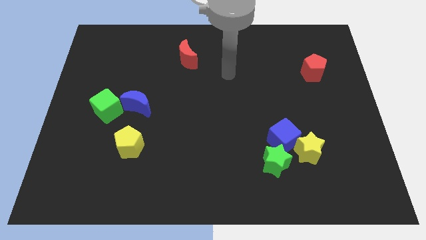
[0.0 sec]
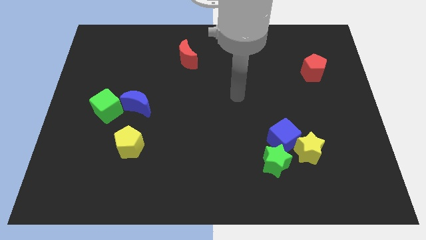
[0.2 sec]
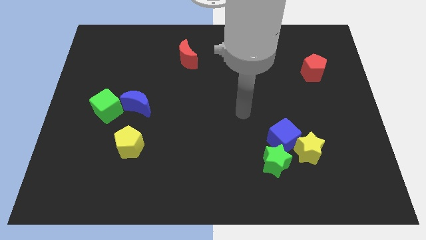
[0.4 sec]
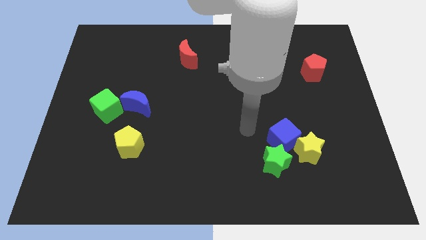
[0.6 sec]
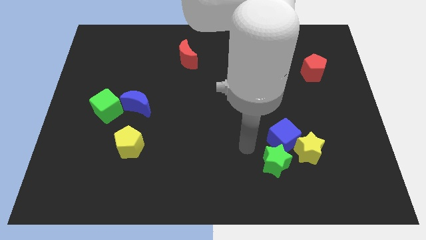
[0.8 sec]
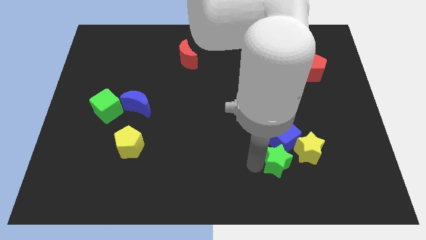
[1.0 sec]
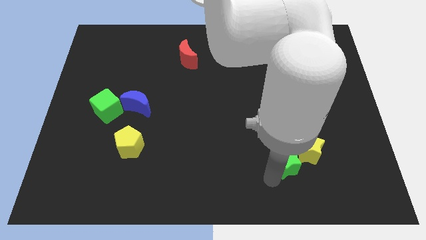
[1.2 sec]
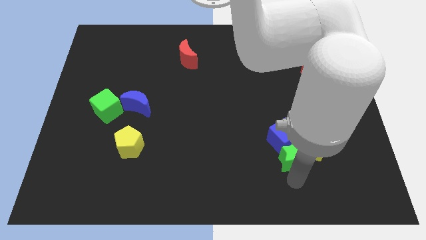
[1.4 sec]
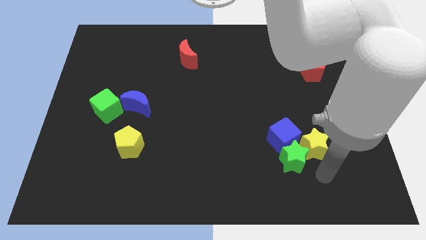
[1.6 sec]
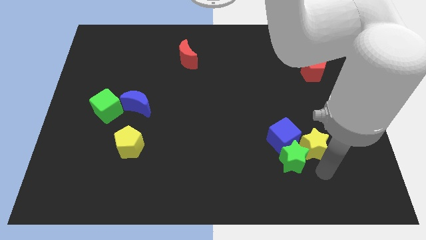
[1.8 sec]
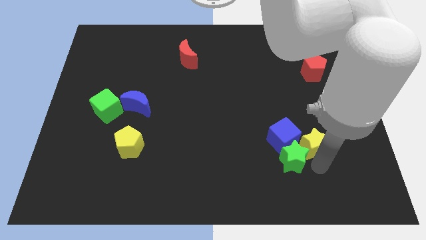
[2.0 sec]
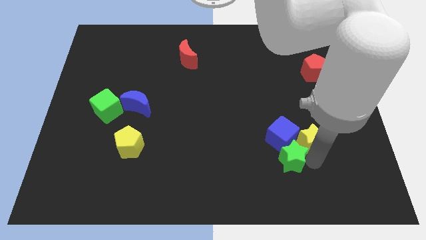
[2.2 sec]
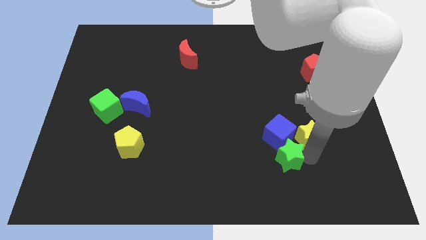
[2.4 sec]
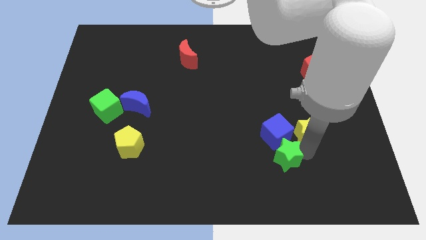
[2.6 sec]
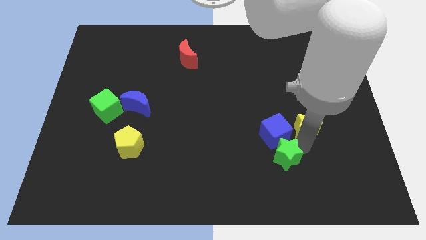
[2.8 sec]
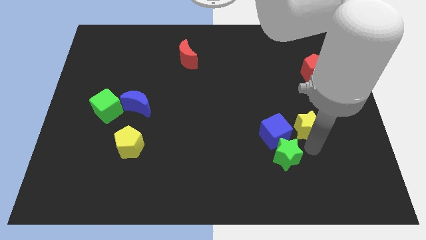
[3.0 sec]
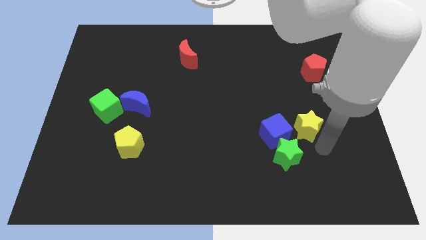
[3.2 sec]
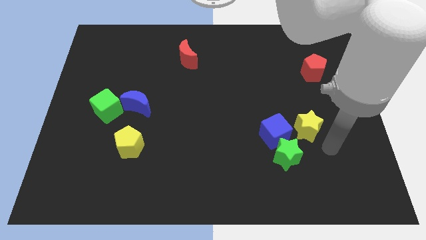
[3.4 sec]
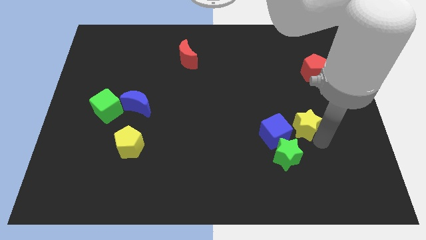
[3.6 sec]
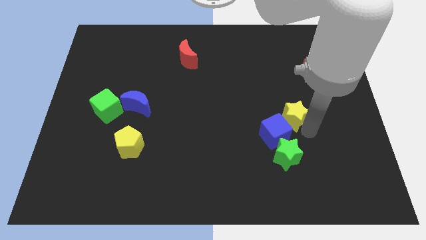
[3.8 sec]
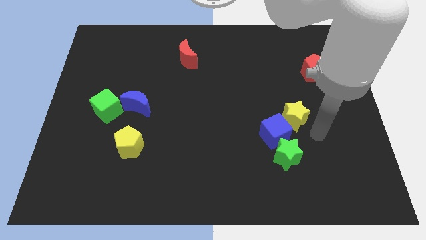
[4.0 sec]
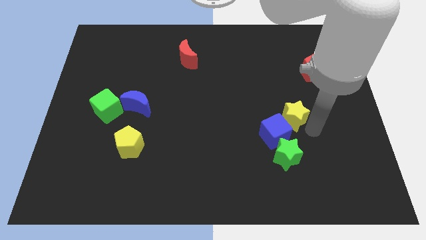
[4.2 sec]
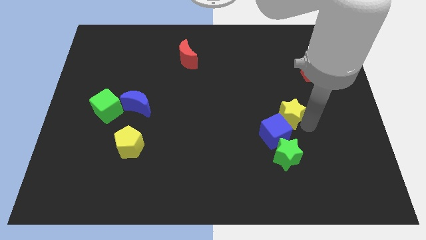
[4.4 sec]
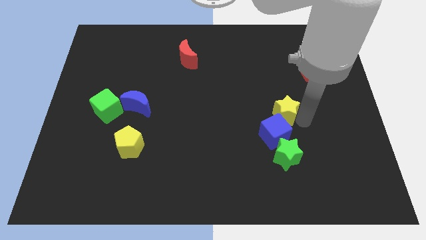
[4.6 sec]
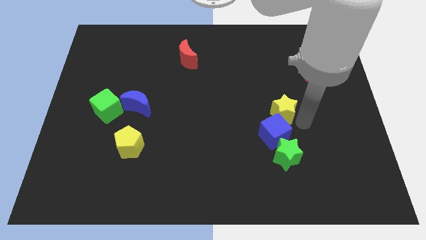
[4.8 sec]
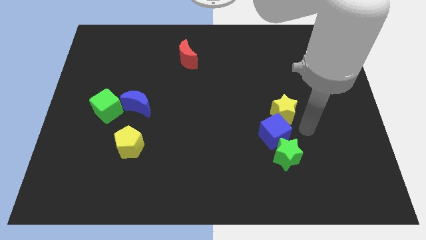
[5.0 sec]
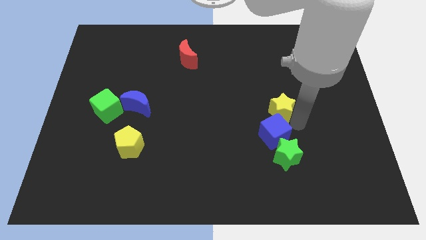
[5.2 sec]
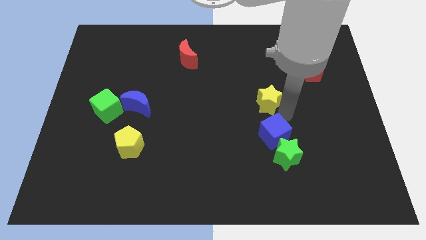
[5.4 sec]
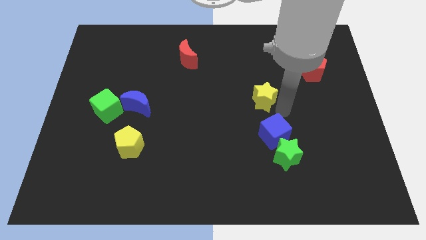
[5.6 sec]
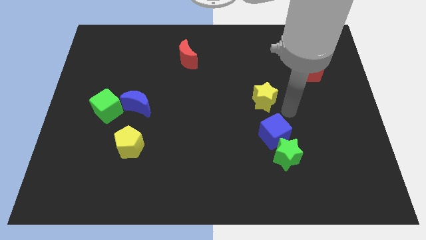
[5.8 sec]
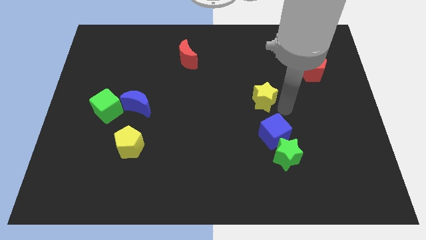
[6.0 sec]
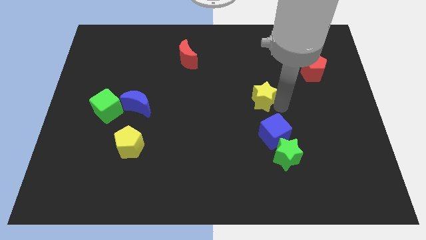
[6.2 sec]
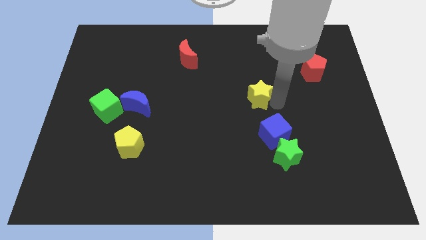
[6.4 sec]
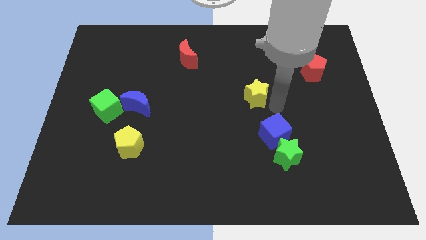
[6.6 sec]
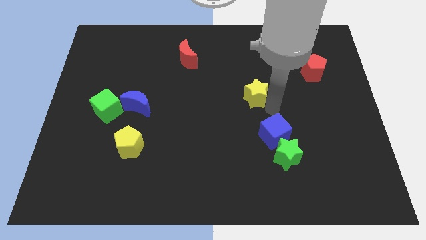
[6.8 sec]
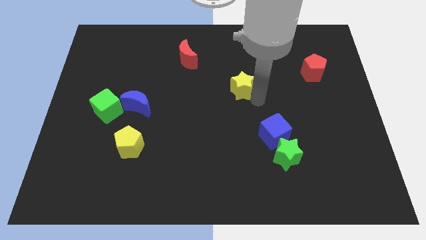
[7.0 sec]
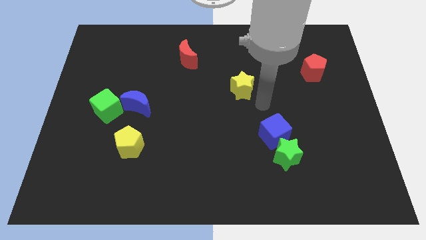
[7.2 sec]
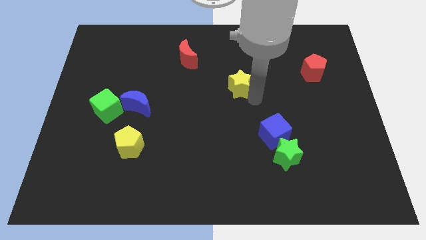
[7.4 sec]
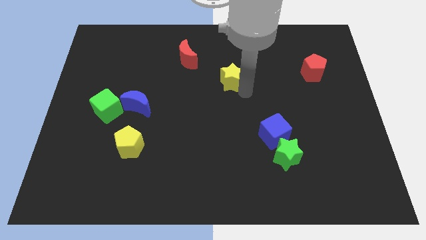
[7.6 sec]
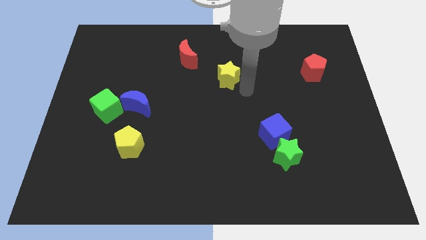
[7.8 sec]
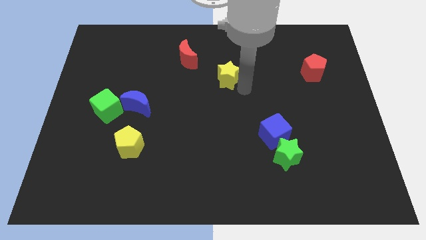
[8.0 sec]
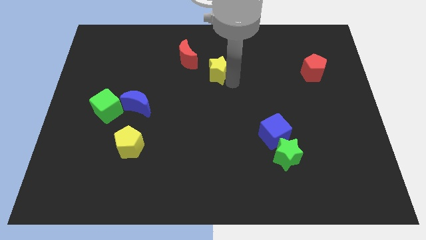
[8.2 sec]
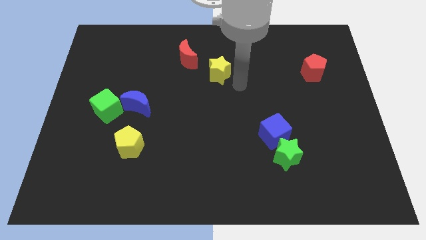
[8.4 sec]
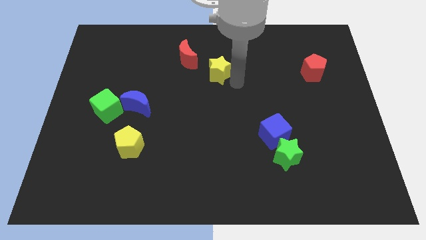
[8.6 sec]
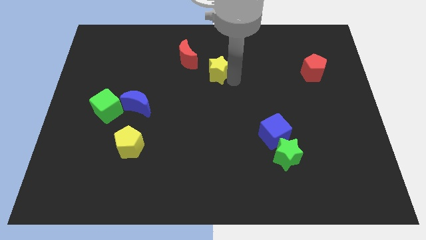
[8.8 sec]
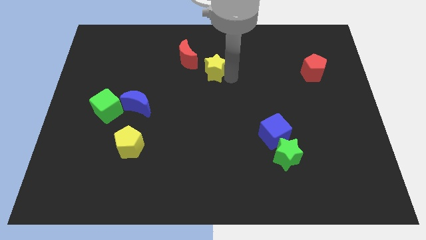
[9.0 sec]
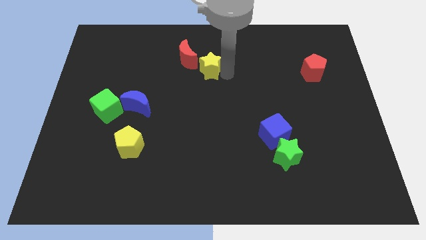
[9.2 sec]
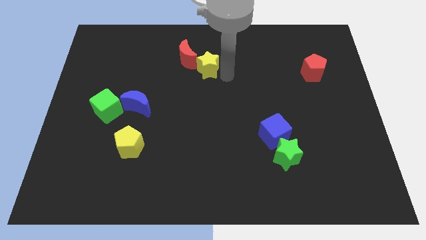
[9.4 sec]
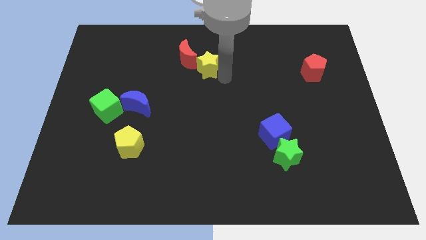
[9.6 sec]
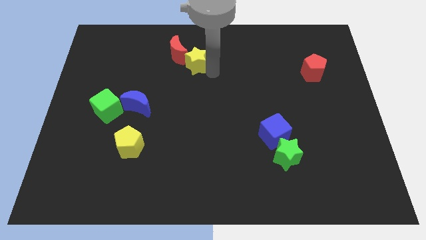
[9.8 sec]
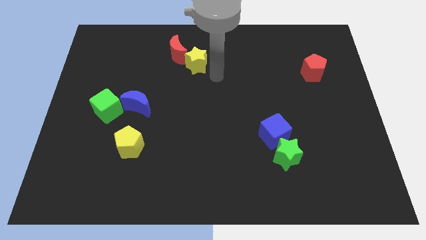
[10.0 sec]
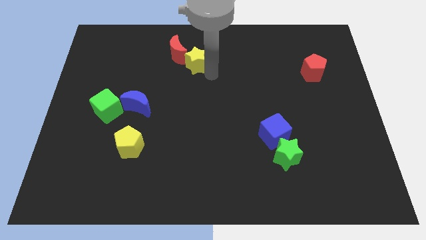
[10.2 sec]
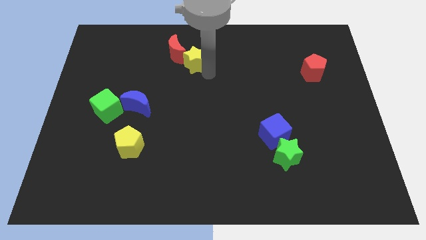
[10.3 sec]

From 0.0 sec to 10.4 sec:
put the yellow star towards the red moon

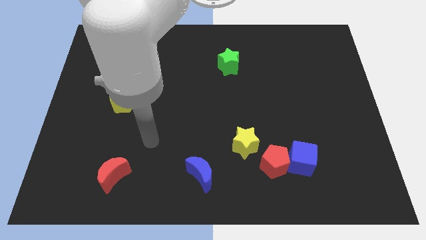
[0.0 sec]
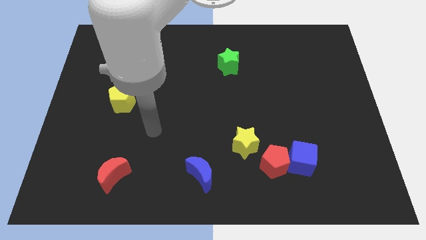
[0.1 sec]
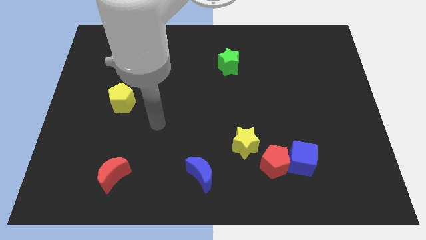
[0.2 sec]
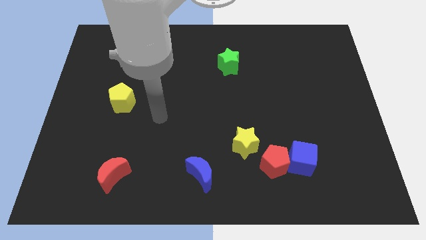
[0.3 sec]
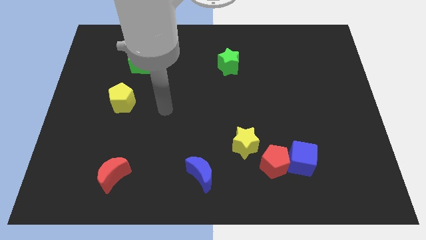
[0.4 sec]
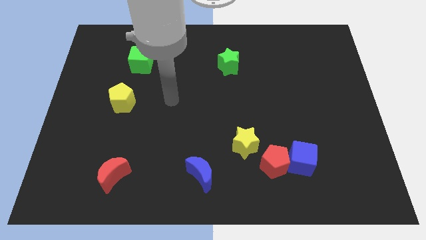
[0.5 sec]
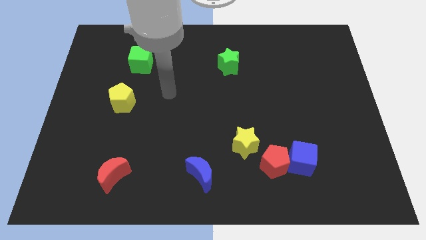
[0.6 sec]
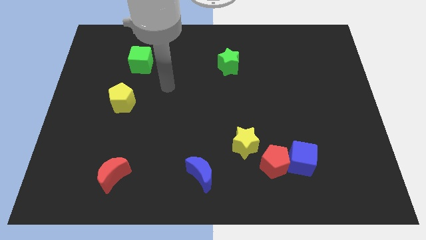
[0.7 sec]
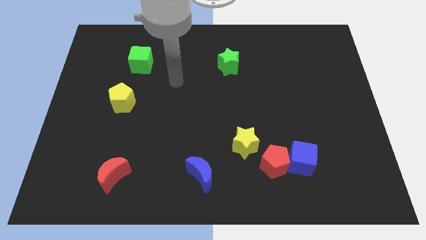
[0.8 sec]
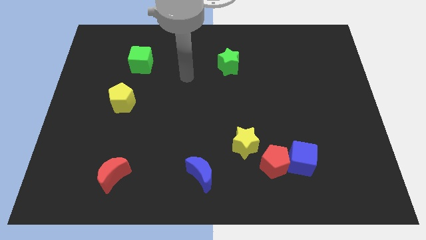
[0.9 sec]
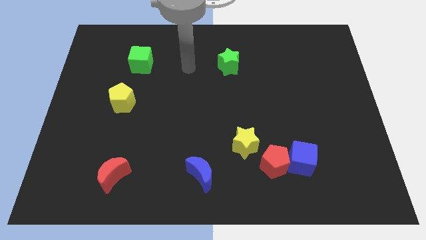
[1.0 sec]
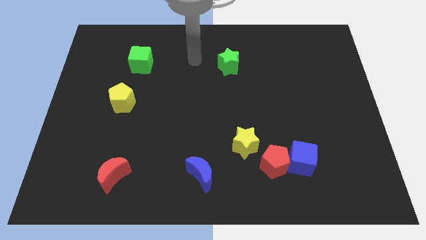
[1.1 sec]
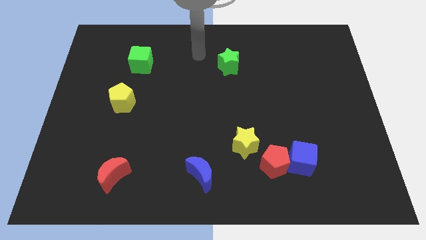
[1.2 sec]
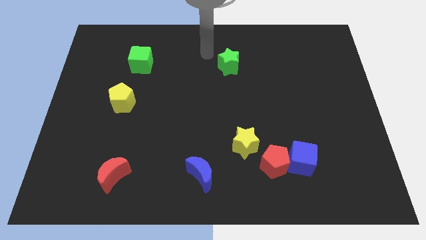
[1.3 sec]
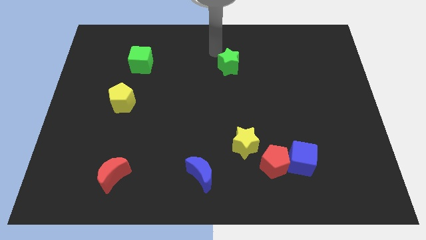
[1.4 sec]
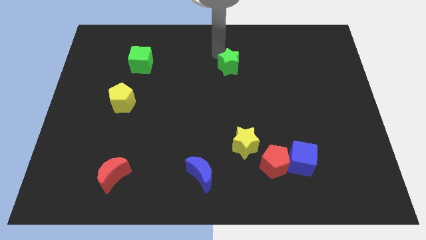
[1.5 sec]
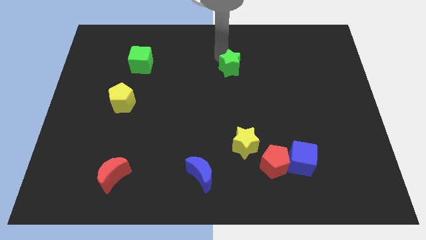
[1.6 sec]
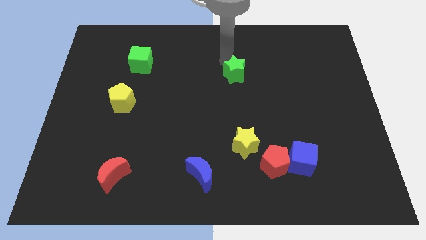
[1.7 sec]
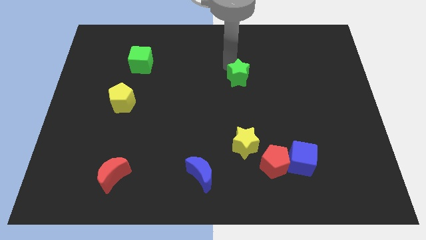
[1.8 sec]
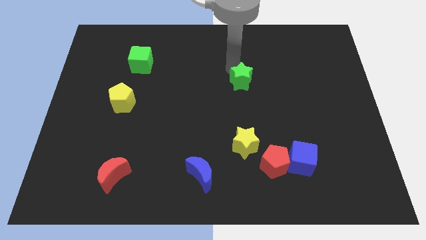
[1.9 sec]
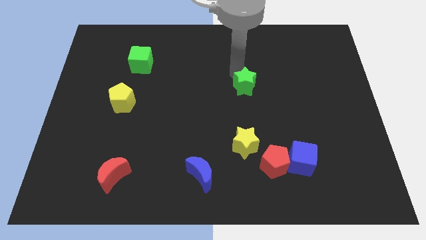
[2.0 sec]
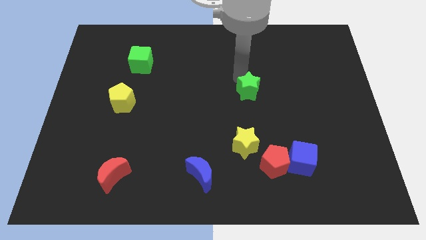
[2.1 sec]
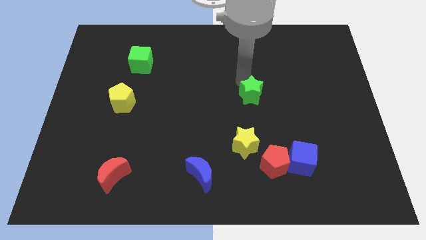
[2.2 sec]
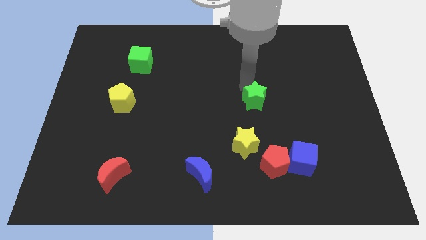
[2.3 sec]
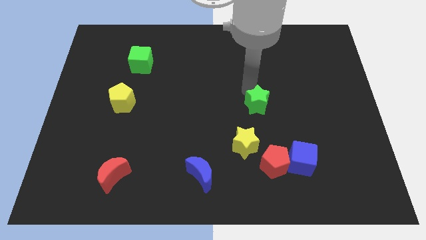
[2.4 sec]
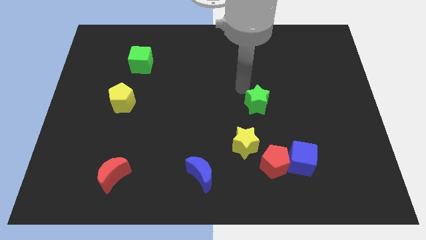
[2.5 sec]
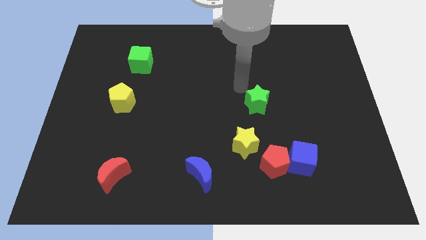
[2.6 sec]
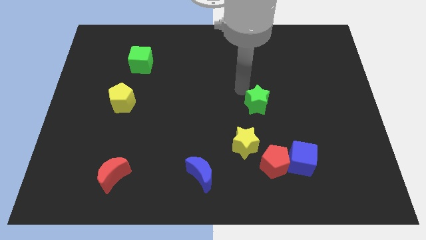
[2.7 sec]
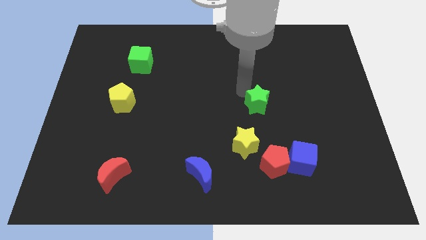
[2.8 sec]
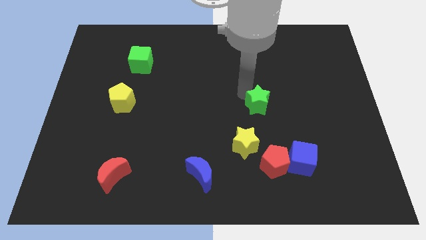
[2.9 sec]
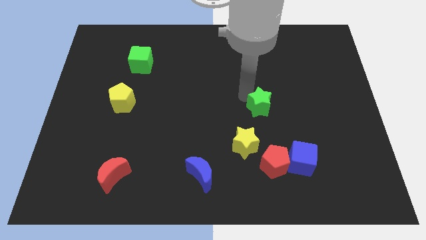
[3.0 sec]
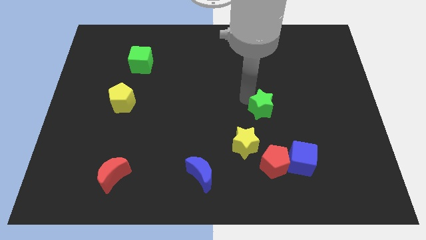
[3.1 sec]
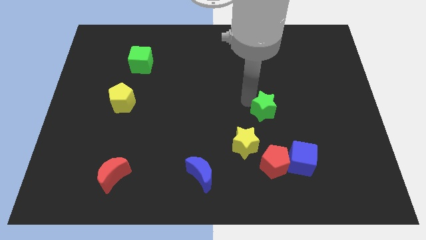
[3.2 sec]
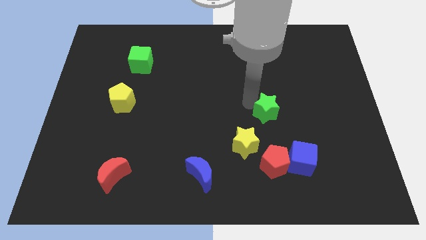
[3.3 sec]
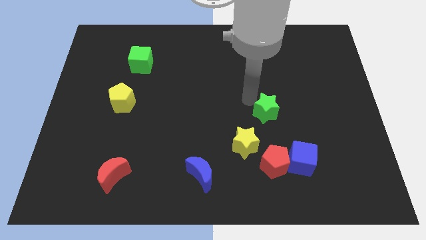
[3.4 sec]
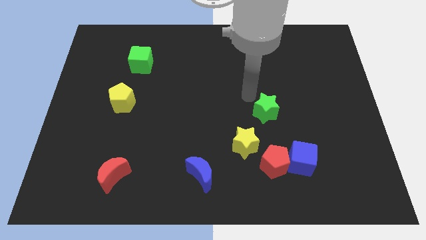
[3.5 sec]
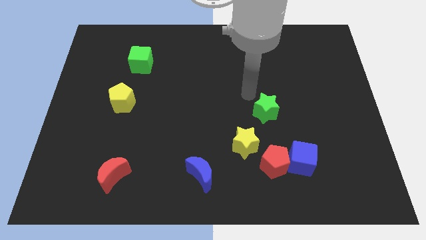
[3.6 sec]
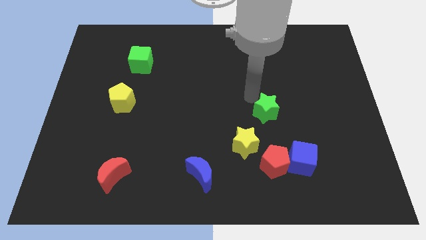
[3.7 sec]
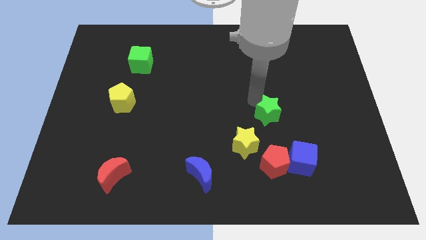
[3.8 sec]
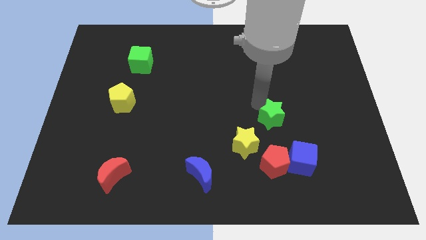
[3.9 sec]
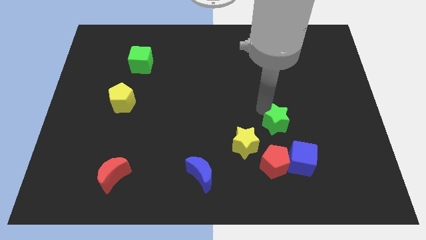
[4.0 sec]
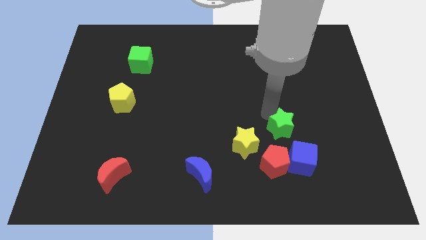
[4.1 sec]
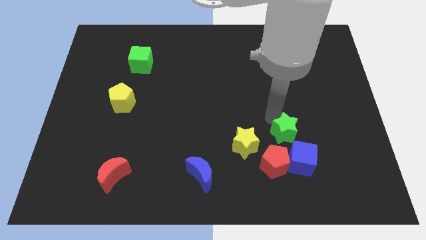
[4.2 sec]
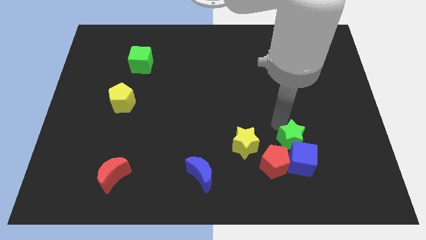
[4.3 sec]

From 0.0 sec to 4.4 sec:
put the green star to the blue cube
